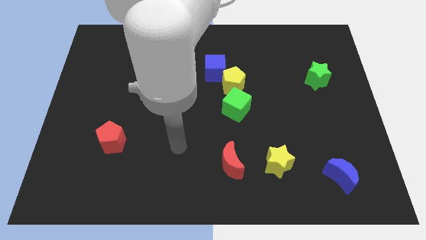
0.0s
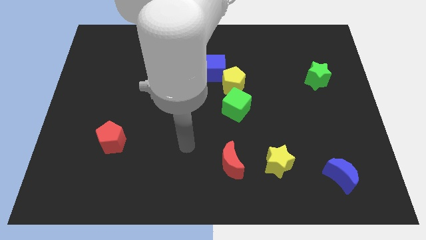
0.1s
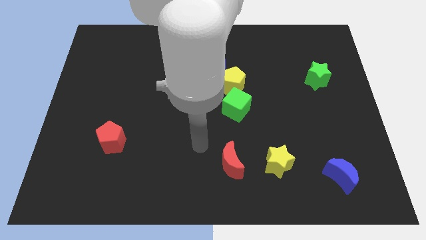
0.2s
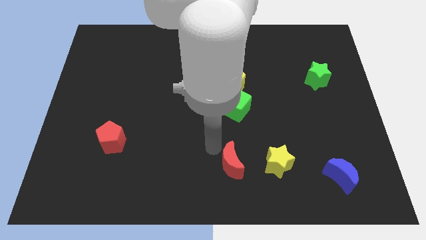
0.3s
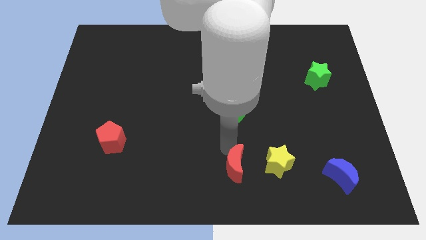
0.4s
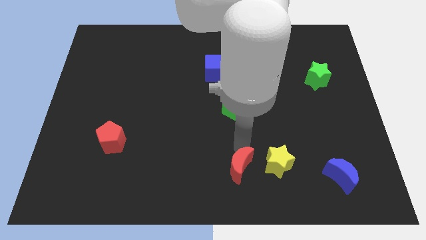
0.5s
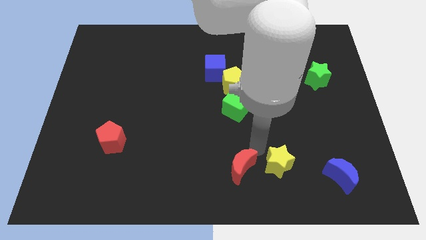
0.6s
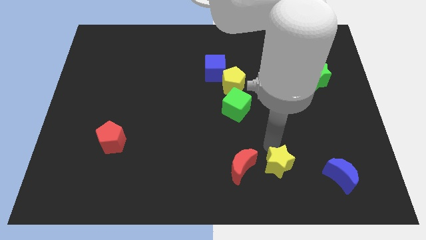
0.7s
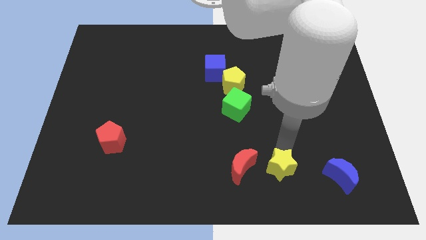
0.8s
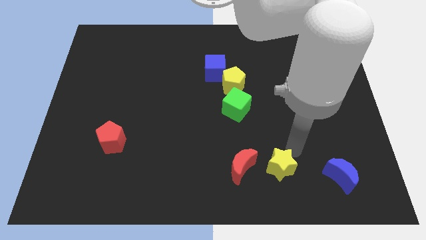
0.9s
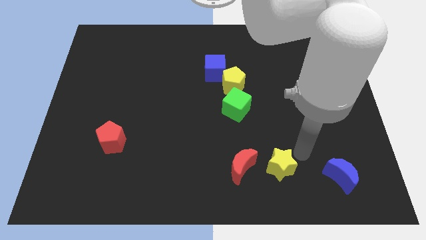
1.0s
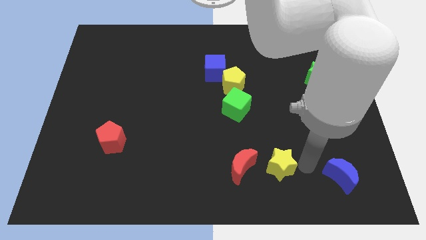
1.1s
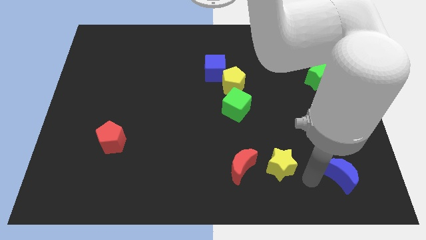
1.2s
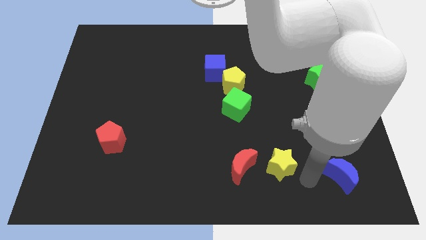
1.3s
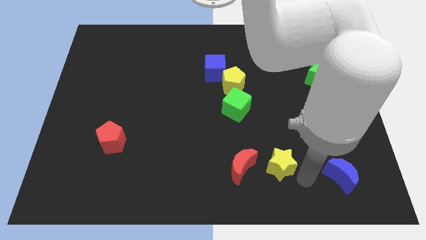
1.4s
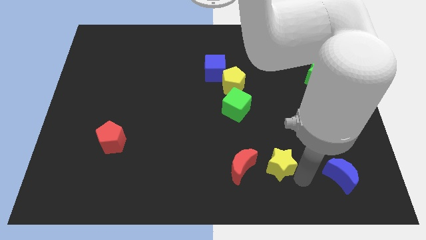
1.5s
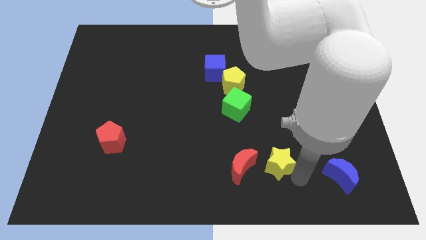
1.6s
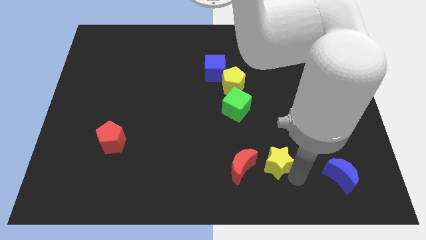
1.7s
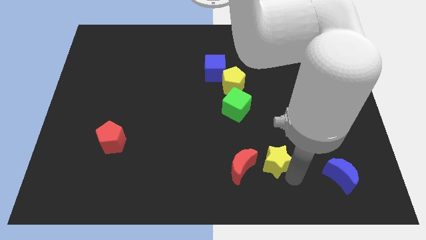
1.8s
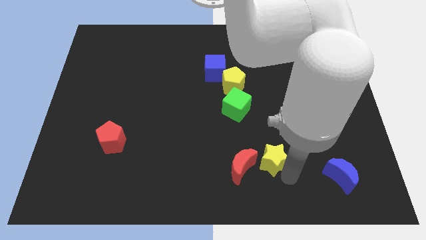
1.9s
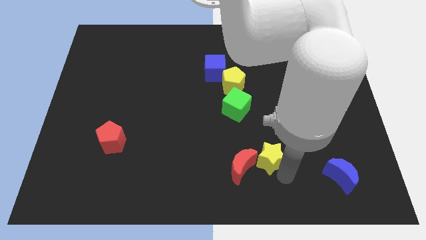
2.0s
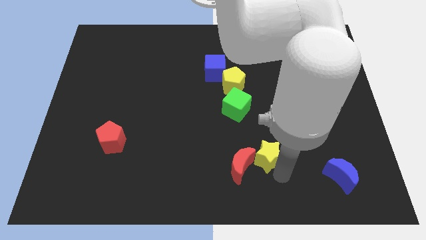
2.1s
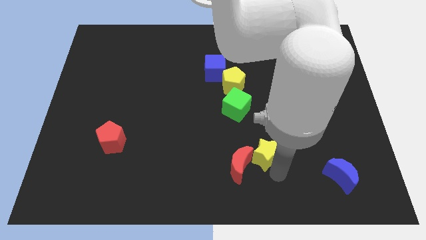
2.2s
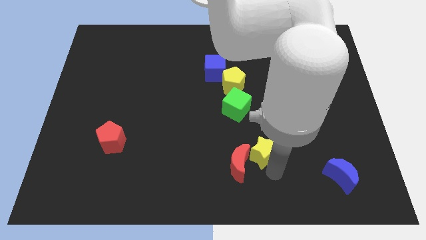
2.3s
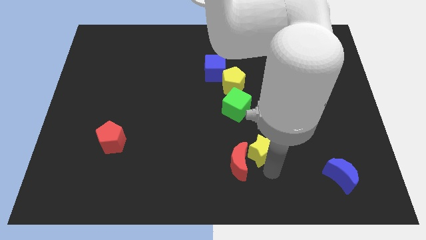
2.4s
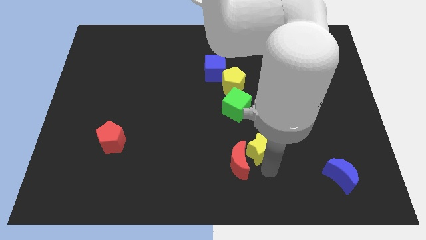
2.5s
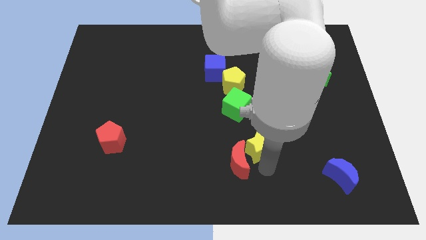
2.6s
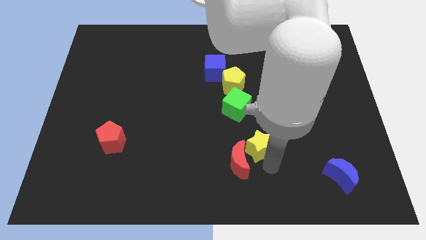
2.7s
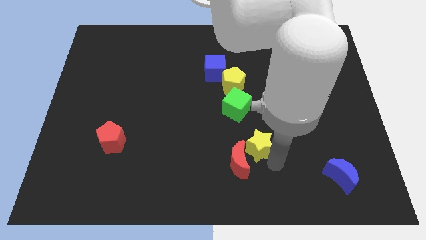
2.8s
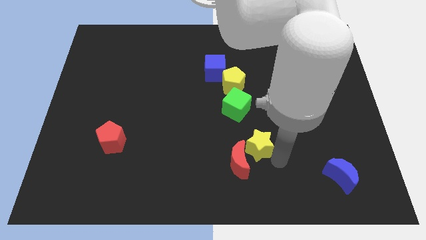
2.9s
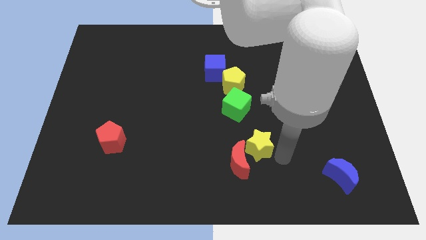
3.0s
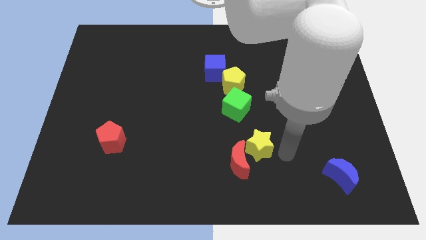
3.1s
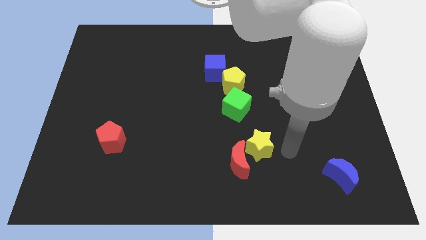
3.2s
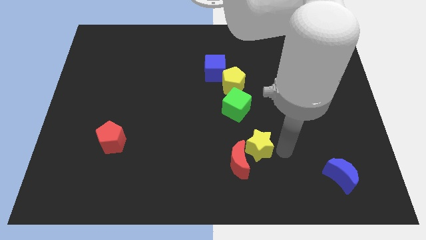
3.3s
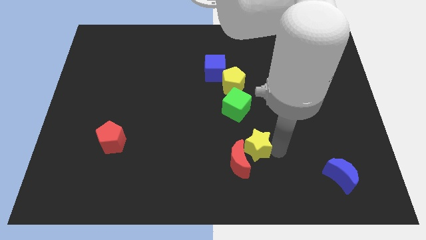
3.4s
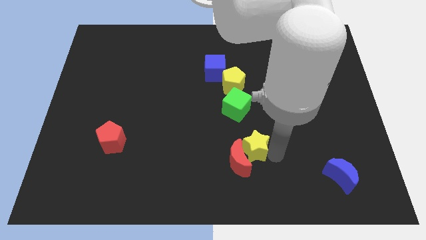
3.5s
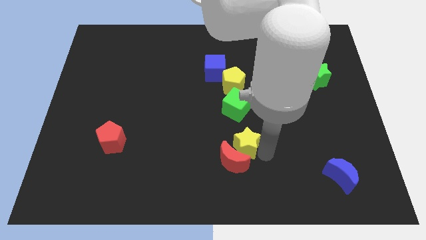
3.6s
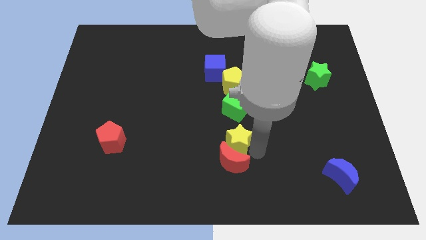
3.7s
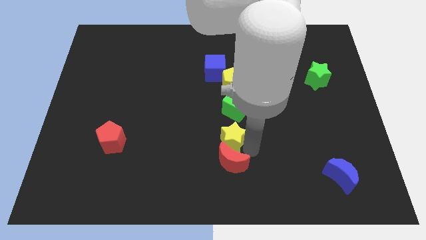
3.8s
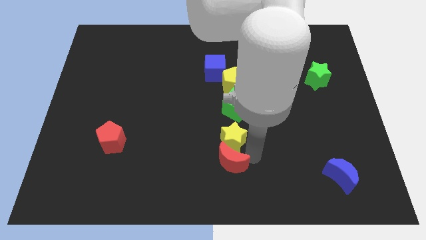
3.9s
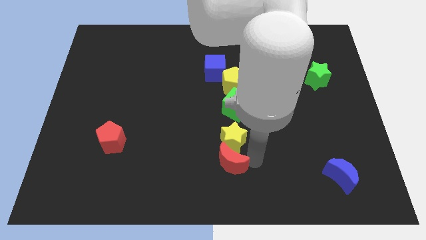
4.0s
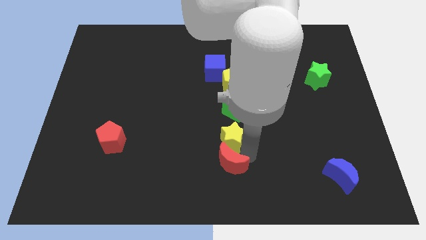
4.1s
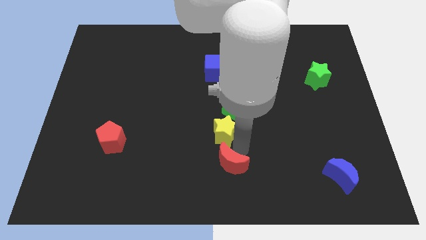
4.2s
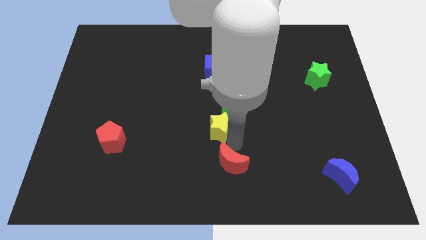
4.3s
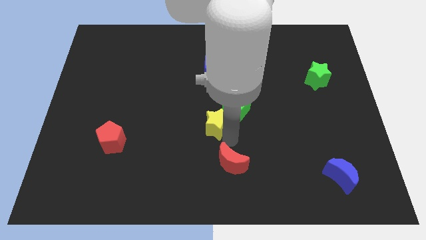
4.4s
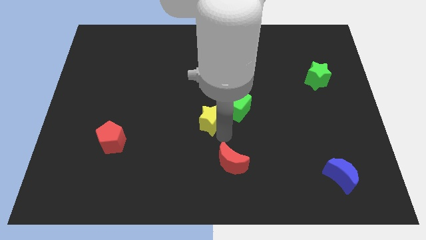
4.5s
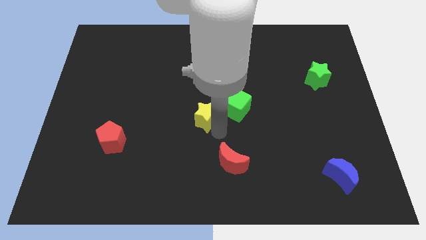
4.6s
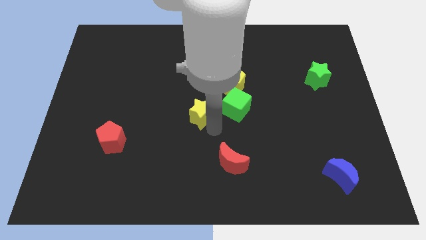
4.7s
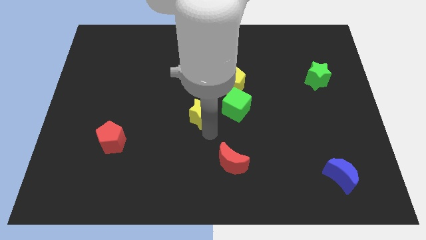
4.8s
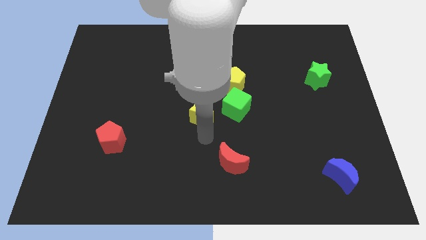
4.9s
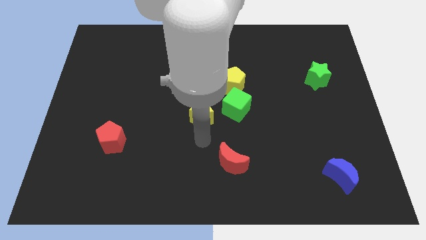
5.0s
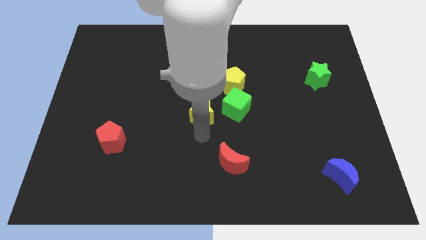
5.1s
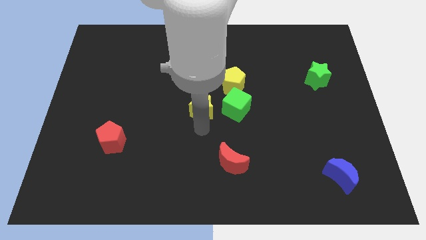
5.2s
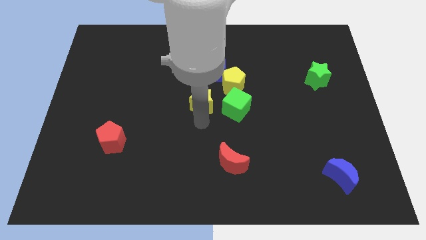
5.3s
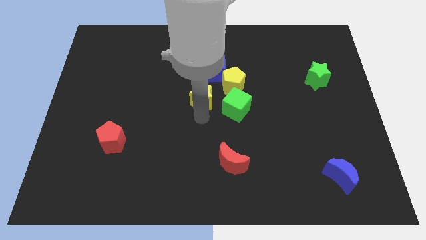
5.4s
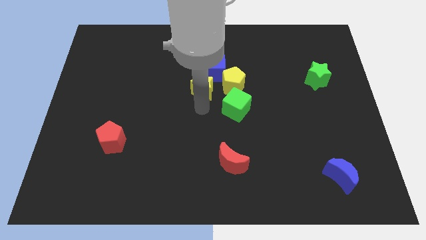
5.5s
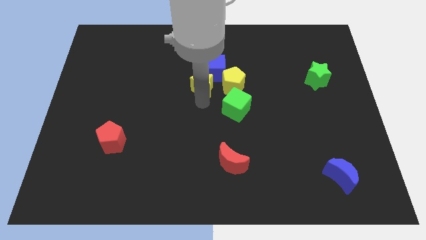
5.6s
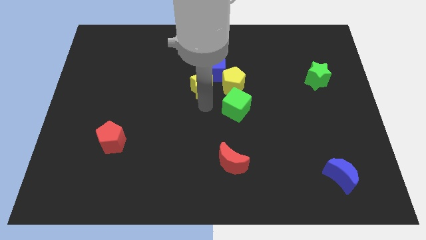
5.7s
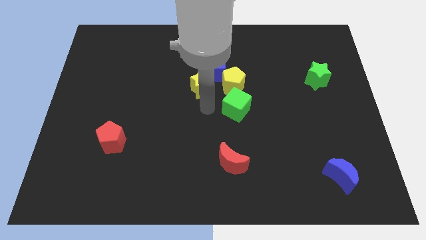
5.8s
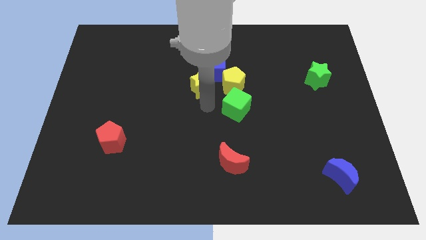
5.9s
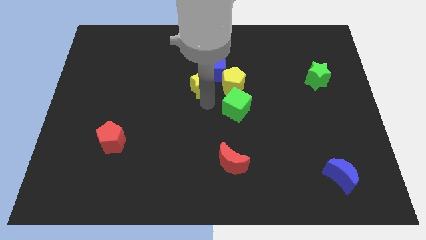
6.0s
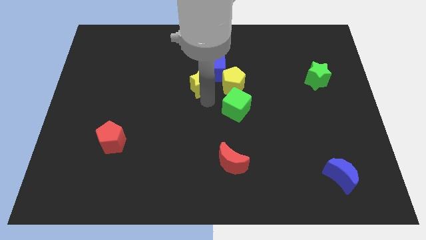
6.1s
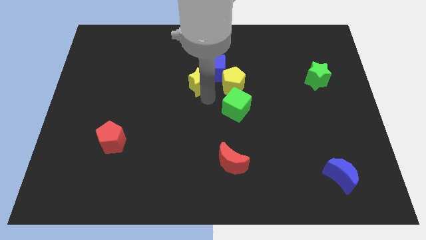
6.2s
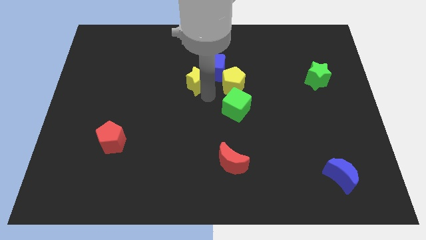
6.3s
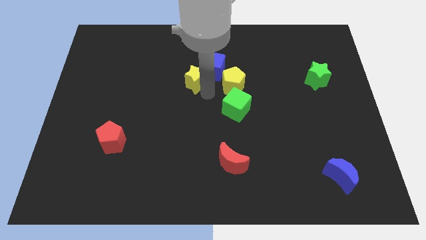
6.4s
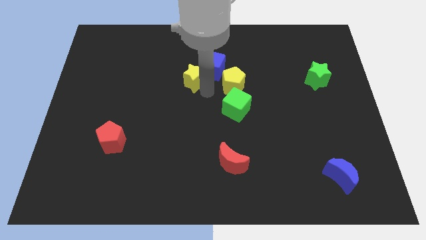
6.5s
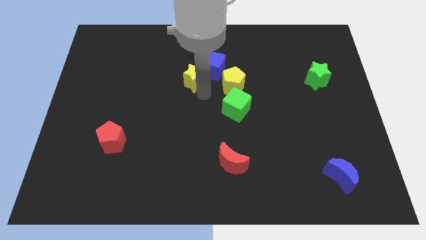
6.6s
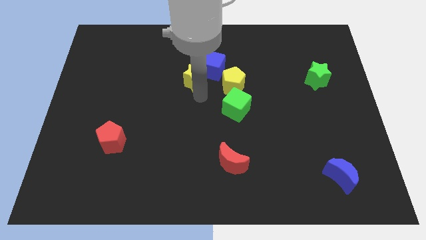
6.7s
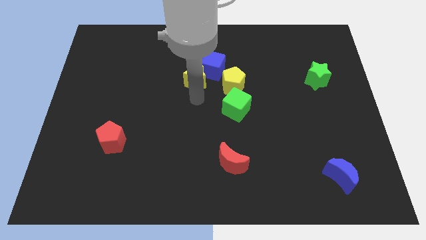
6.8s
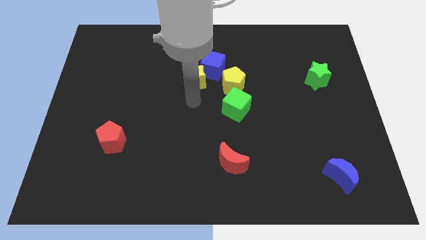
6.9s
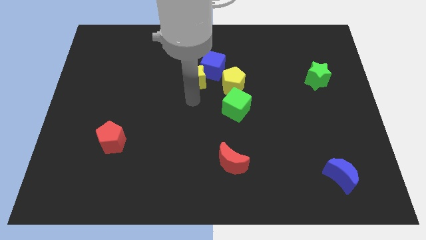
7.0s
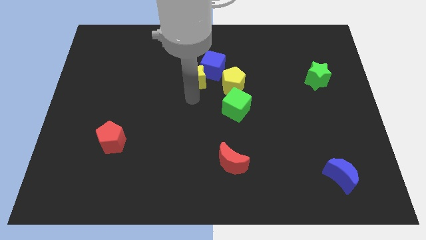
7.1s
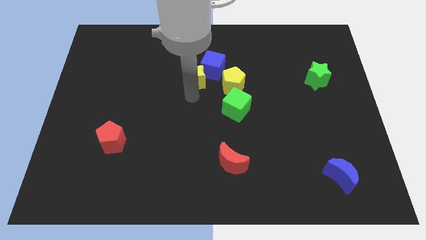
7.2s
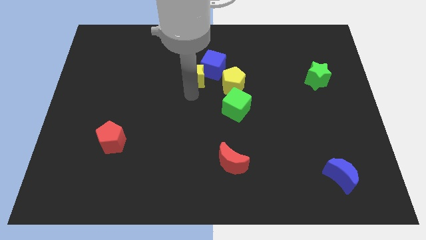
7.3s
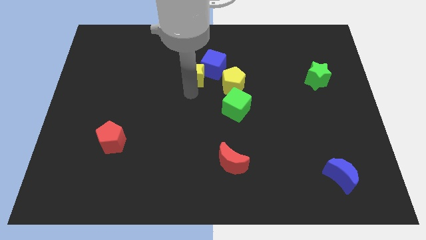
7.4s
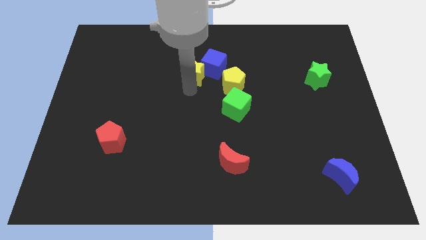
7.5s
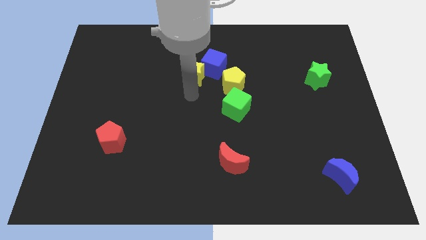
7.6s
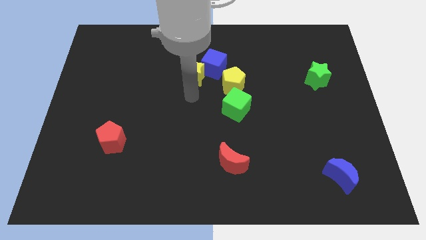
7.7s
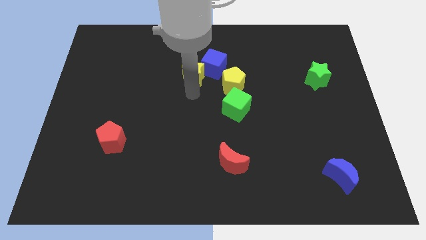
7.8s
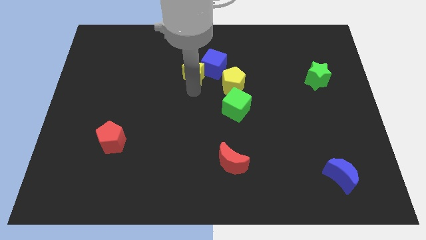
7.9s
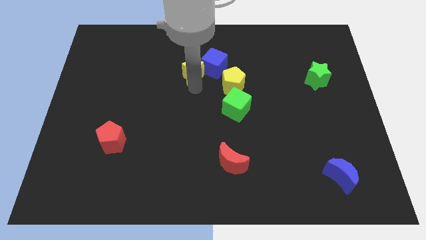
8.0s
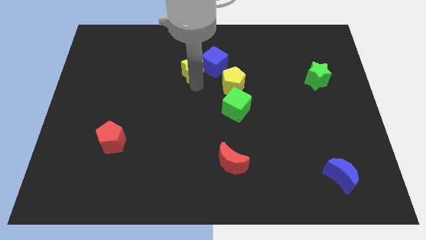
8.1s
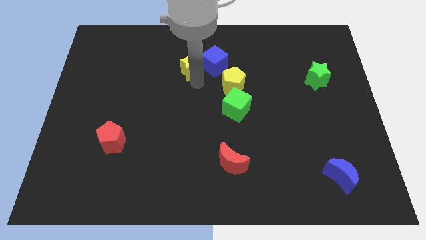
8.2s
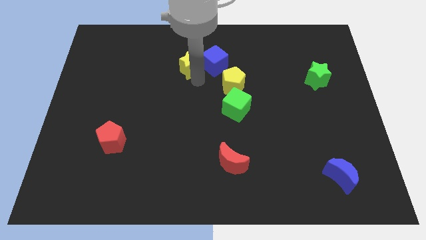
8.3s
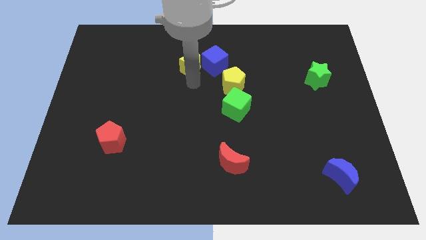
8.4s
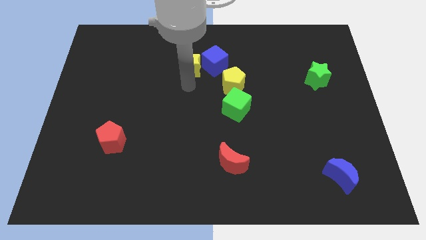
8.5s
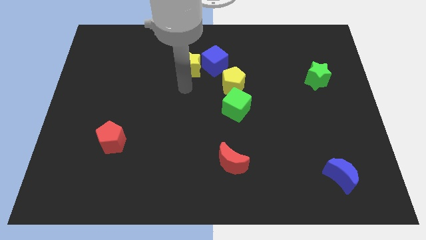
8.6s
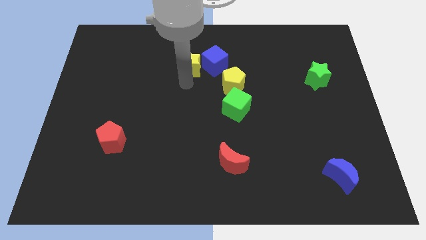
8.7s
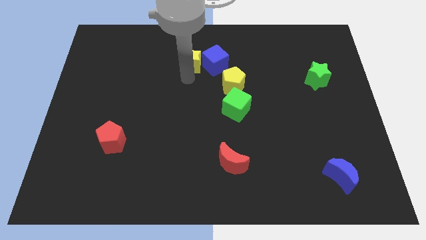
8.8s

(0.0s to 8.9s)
slide the yellow star to the top left side of the blue cube
